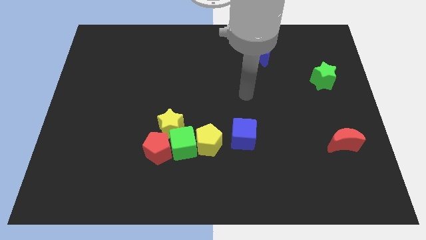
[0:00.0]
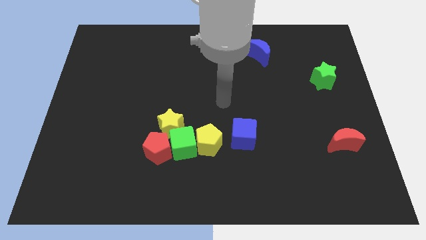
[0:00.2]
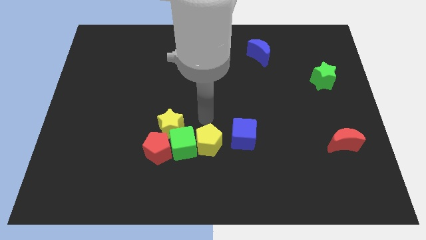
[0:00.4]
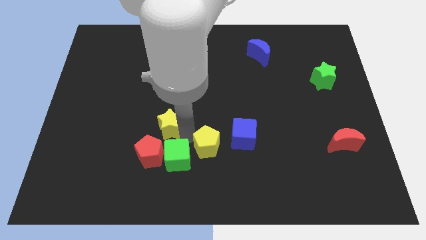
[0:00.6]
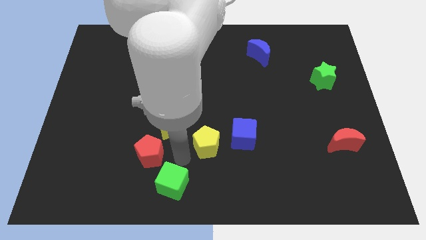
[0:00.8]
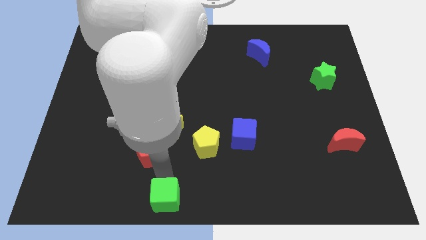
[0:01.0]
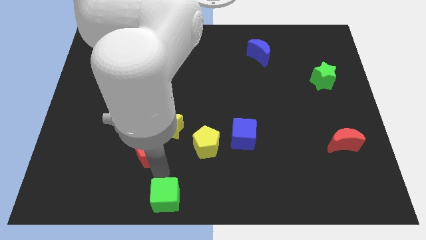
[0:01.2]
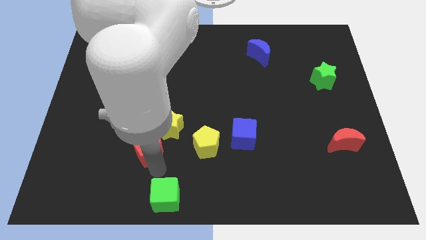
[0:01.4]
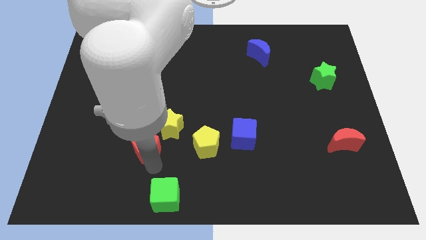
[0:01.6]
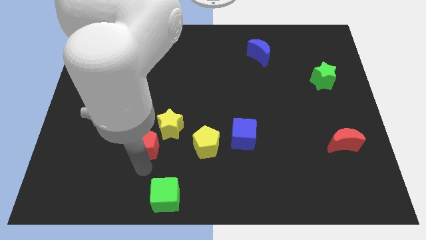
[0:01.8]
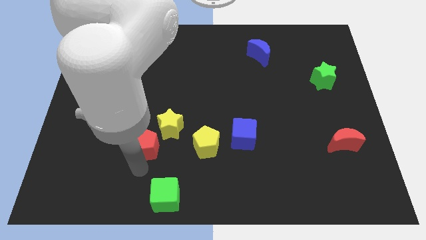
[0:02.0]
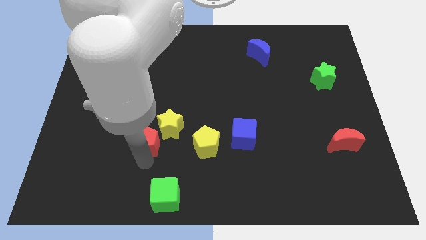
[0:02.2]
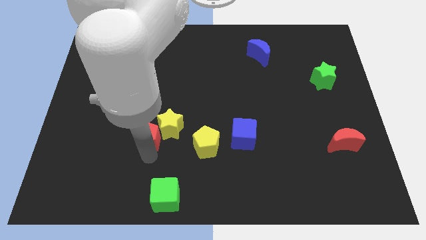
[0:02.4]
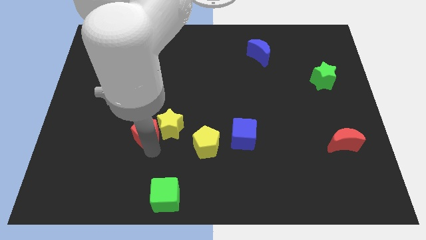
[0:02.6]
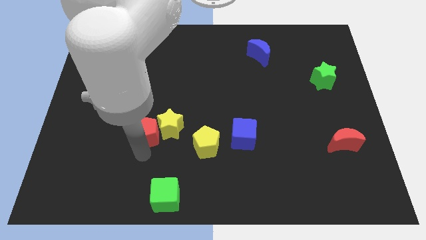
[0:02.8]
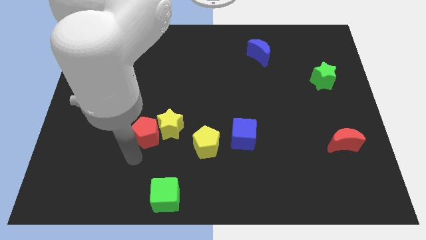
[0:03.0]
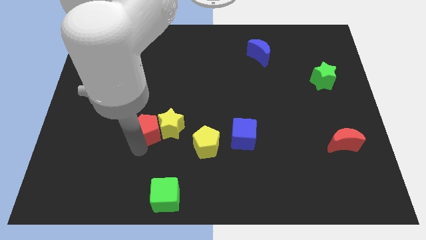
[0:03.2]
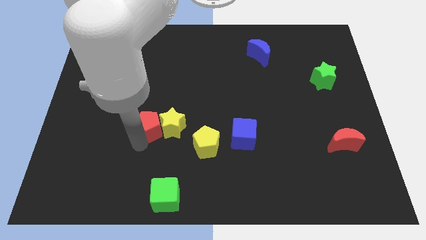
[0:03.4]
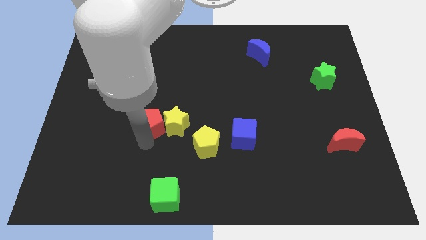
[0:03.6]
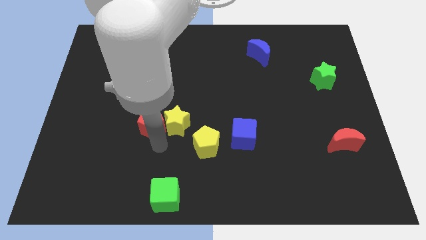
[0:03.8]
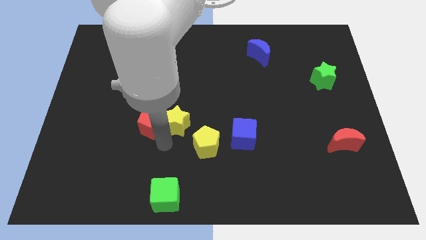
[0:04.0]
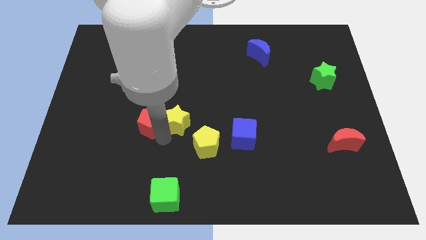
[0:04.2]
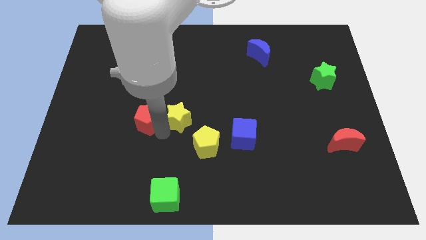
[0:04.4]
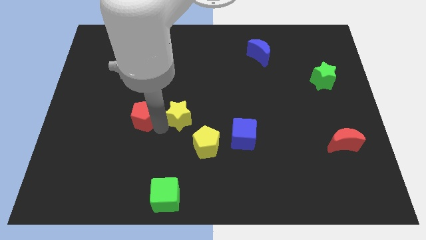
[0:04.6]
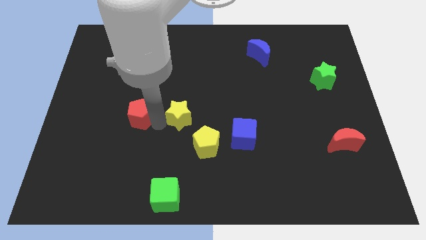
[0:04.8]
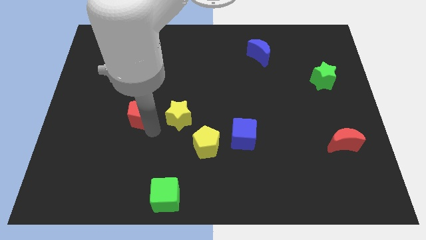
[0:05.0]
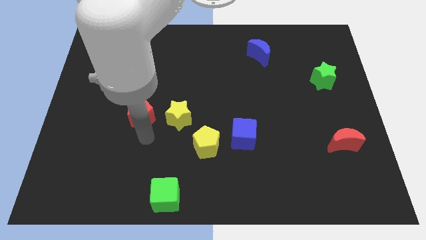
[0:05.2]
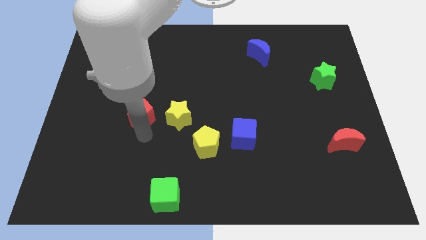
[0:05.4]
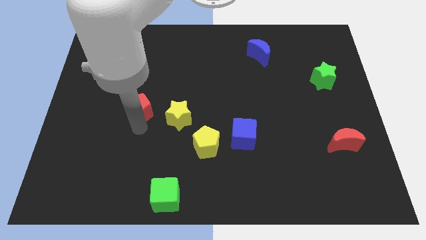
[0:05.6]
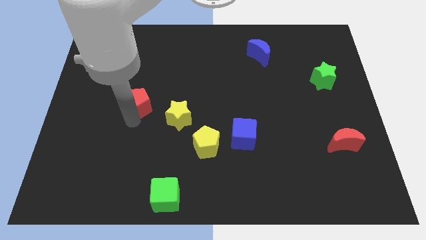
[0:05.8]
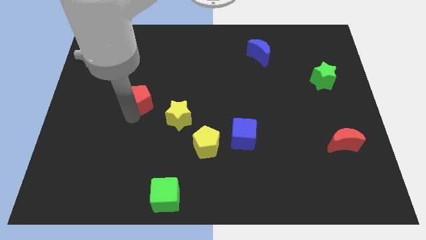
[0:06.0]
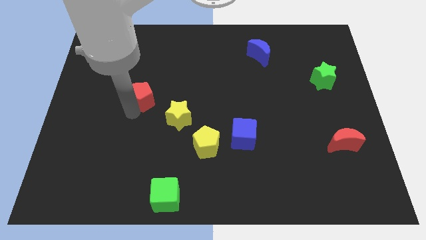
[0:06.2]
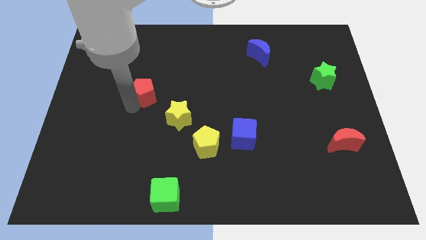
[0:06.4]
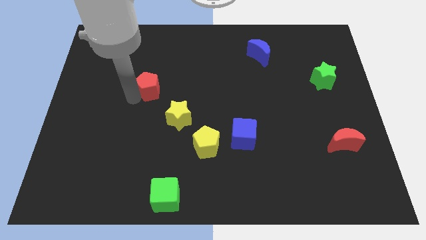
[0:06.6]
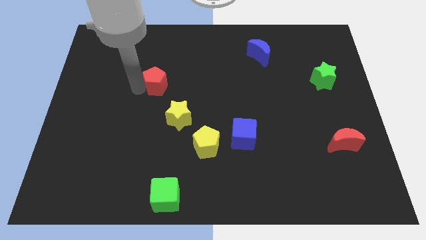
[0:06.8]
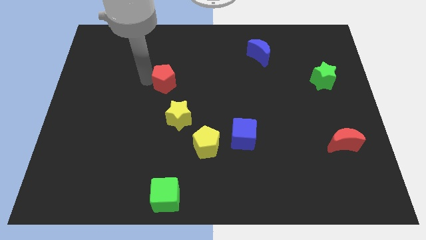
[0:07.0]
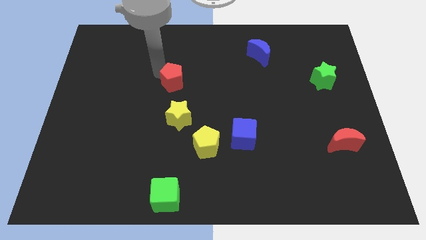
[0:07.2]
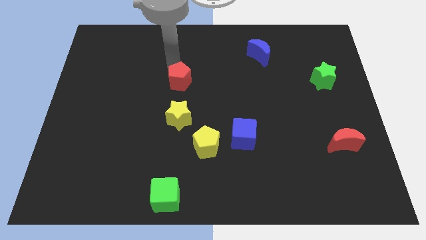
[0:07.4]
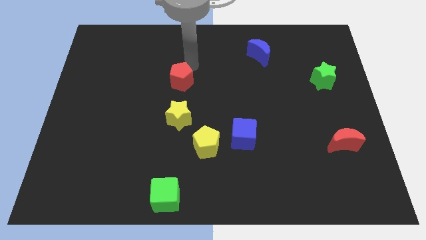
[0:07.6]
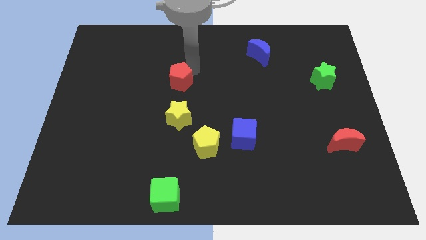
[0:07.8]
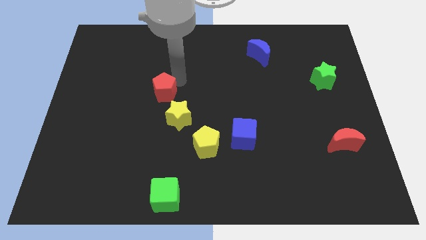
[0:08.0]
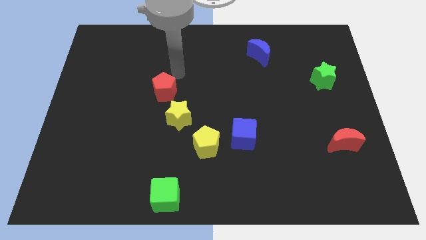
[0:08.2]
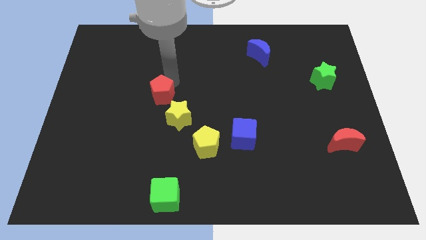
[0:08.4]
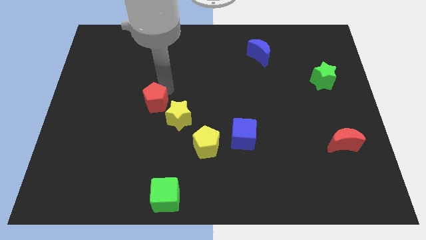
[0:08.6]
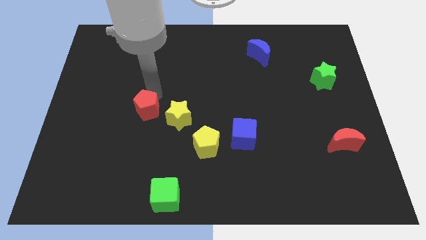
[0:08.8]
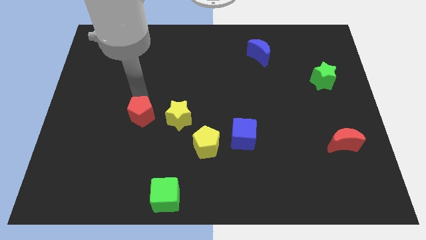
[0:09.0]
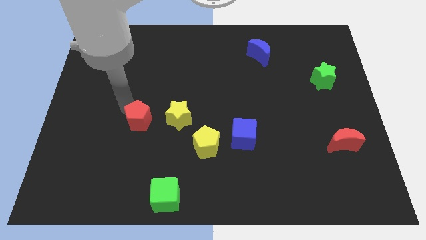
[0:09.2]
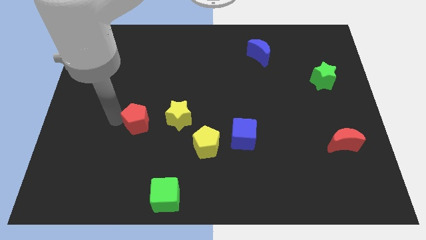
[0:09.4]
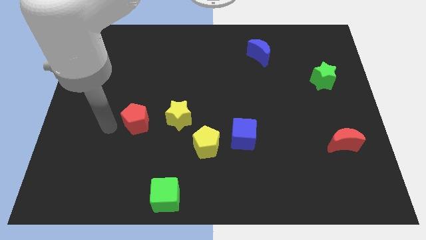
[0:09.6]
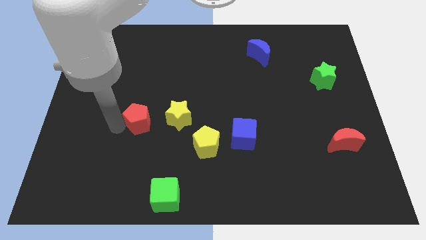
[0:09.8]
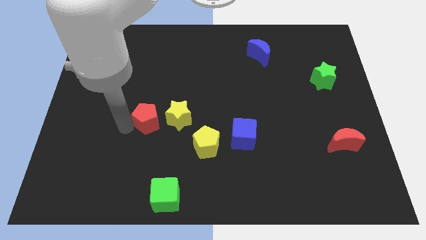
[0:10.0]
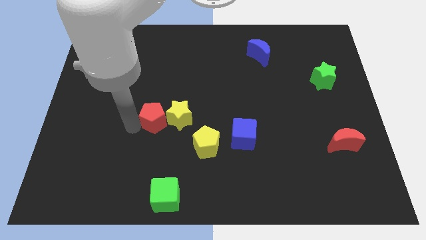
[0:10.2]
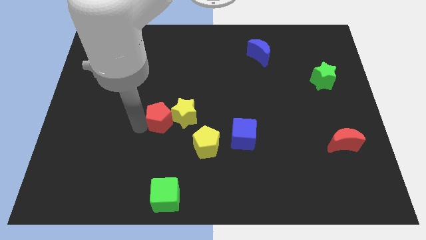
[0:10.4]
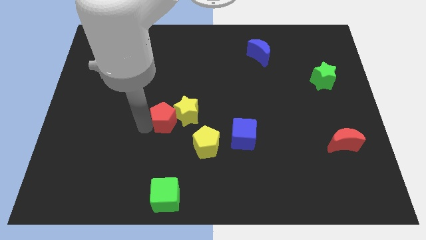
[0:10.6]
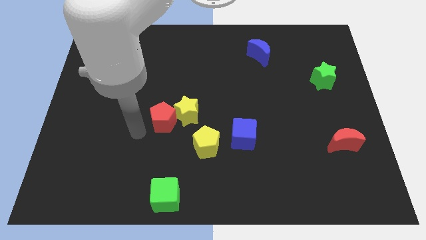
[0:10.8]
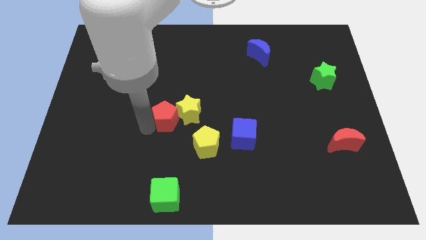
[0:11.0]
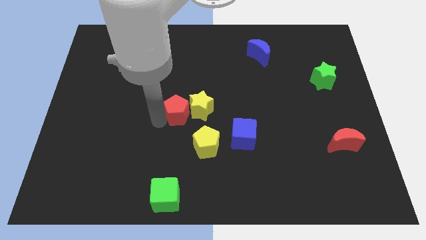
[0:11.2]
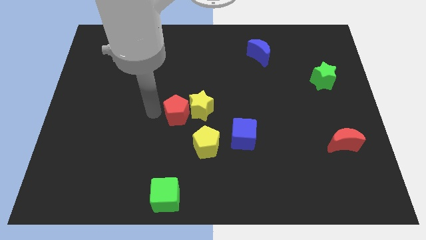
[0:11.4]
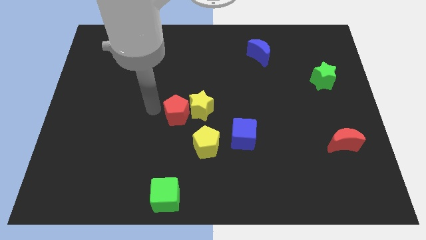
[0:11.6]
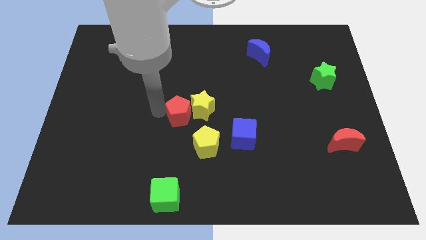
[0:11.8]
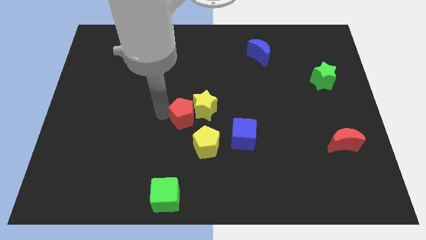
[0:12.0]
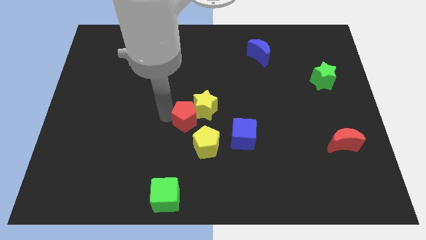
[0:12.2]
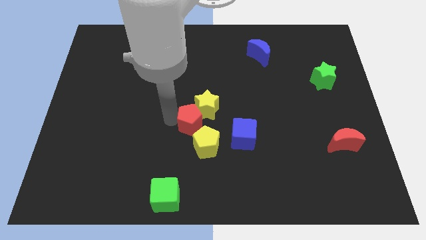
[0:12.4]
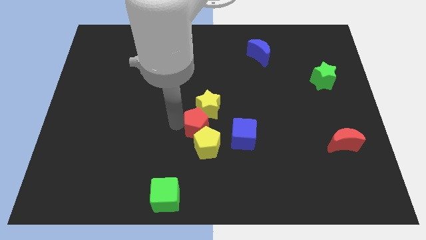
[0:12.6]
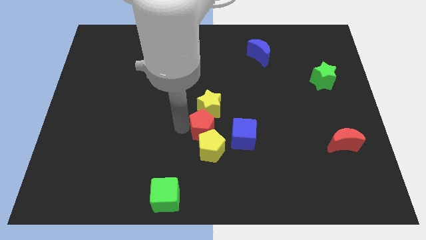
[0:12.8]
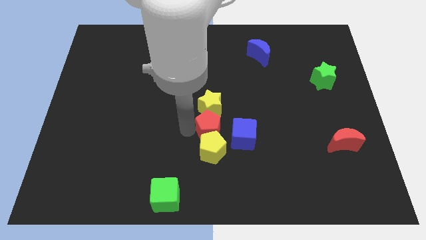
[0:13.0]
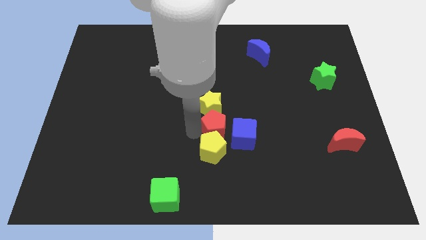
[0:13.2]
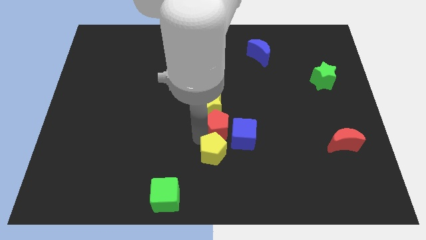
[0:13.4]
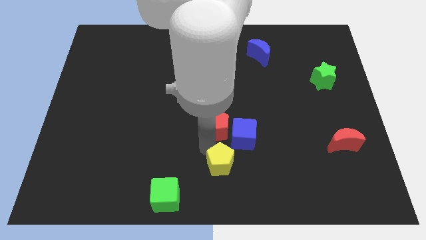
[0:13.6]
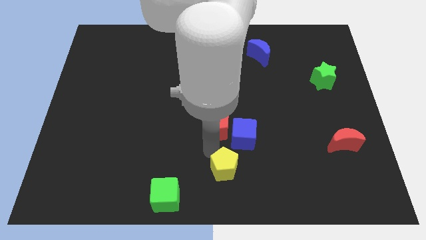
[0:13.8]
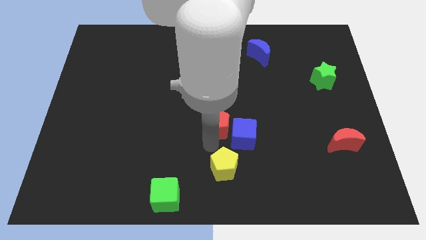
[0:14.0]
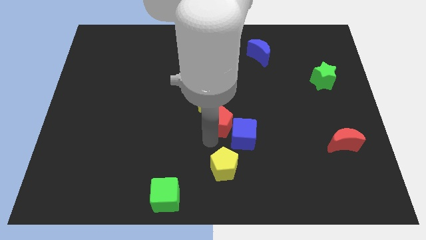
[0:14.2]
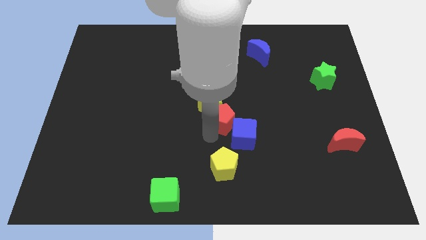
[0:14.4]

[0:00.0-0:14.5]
put the red pentagon above the blue cube

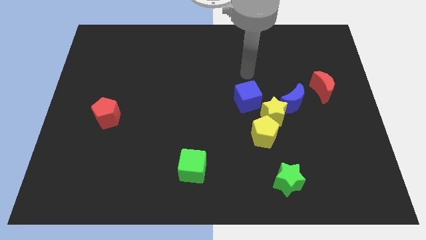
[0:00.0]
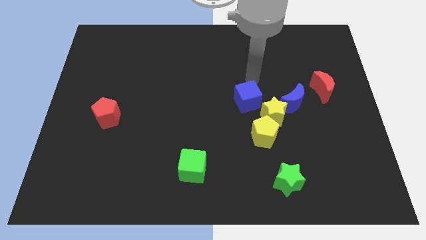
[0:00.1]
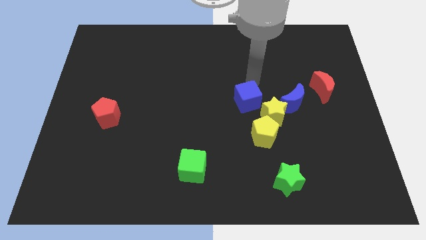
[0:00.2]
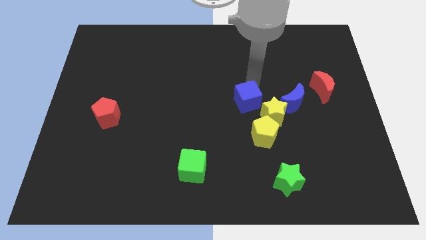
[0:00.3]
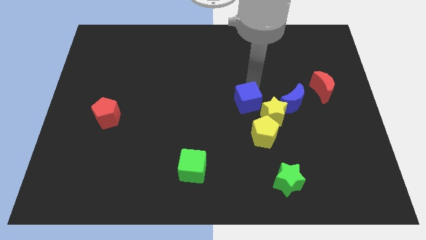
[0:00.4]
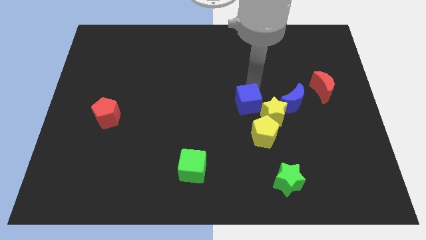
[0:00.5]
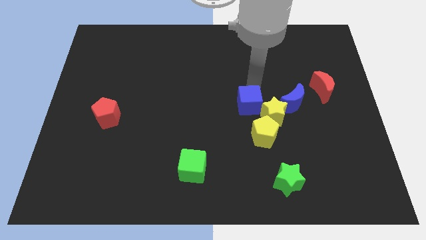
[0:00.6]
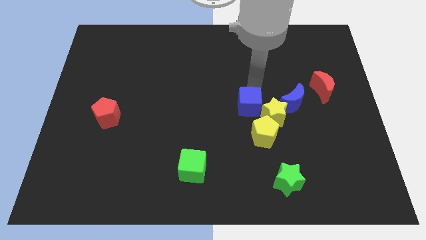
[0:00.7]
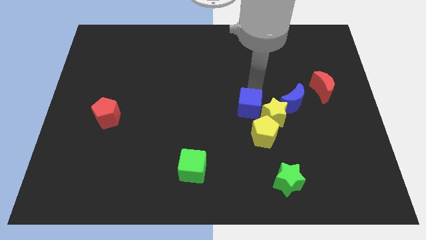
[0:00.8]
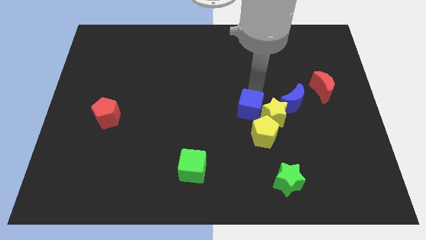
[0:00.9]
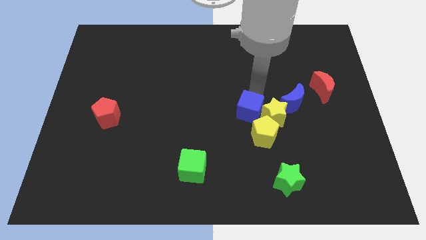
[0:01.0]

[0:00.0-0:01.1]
slide the blue cube to the bottom left side of the yellow star
